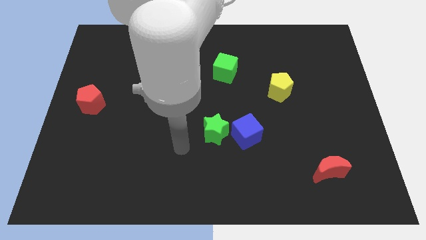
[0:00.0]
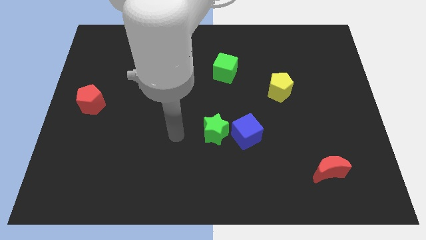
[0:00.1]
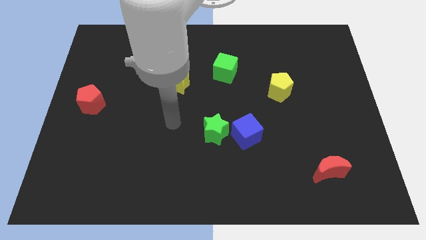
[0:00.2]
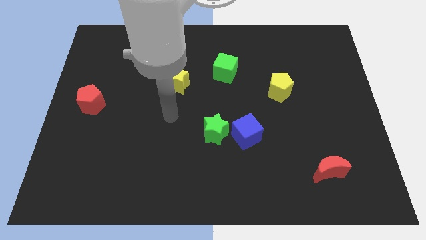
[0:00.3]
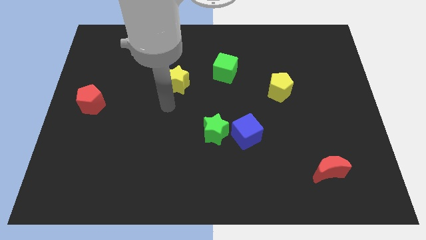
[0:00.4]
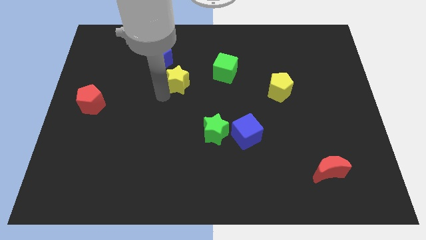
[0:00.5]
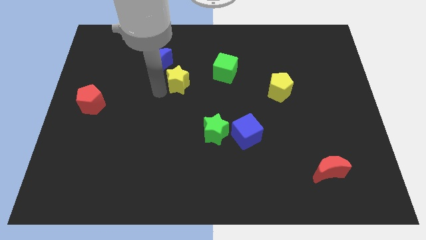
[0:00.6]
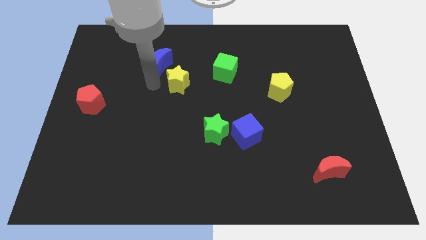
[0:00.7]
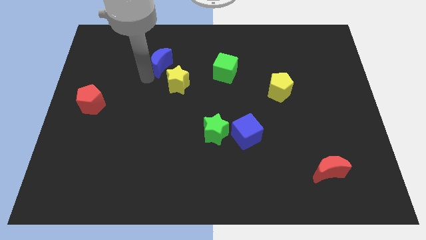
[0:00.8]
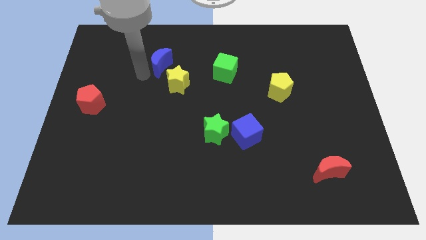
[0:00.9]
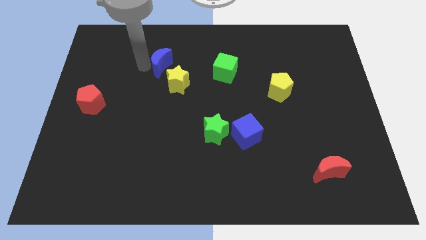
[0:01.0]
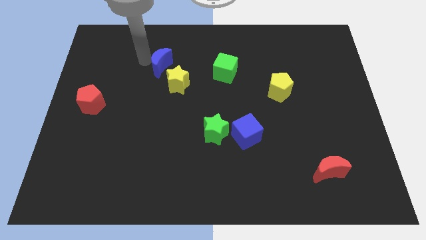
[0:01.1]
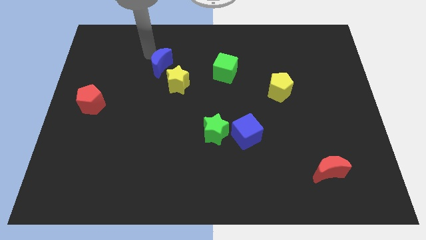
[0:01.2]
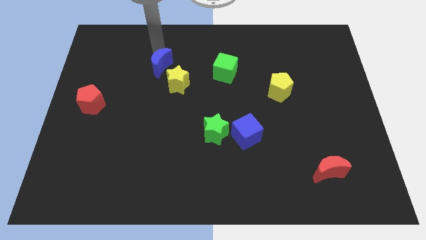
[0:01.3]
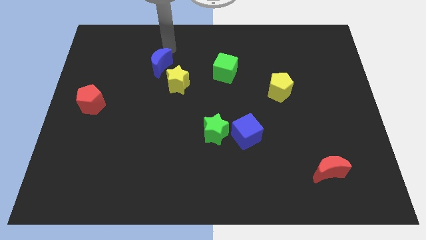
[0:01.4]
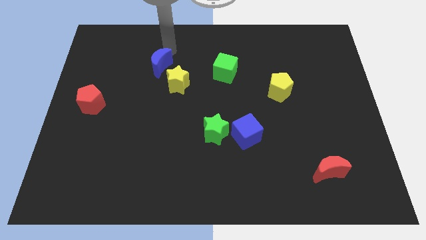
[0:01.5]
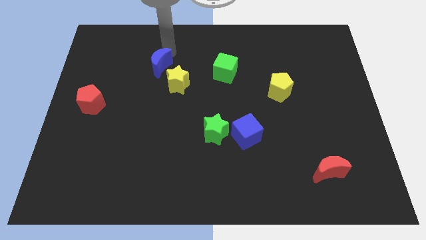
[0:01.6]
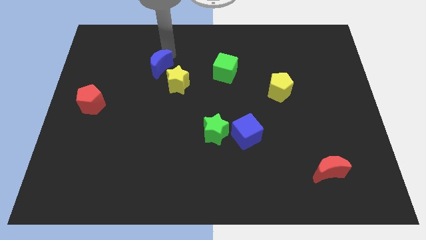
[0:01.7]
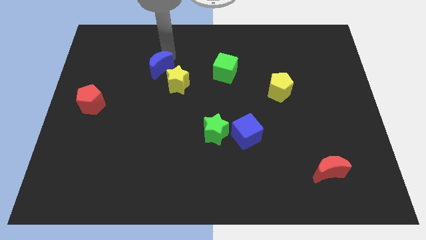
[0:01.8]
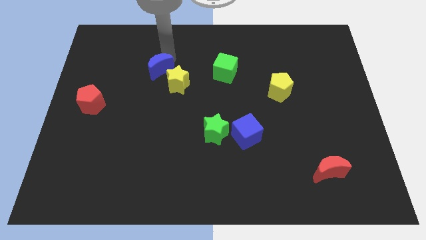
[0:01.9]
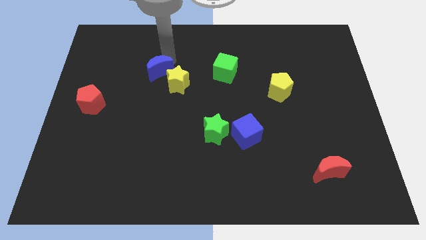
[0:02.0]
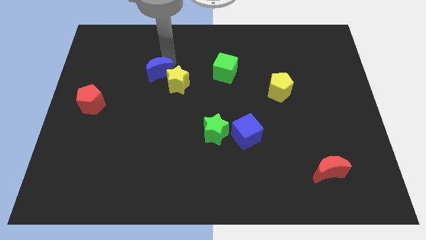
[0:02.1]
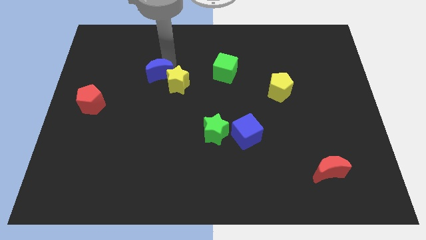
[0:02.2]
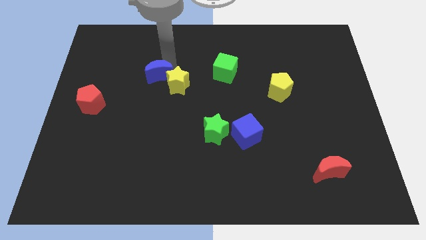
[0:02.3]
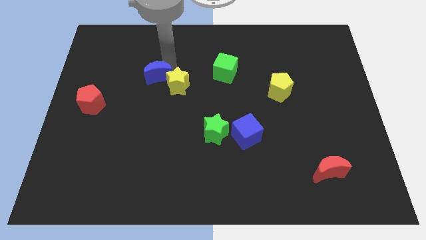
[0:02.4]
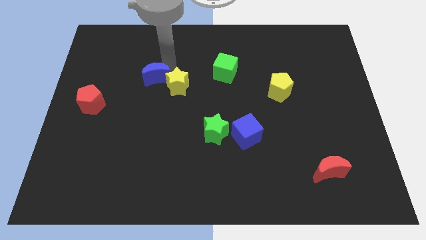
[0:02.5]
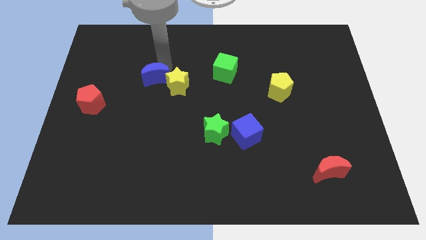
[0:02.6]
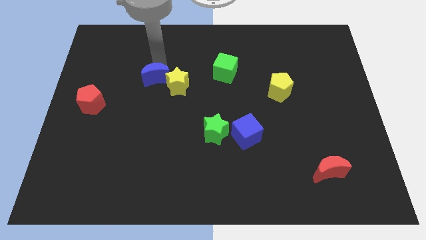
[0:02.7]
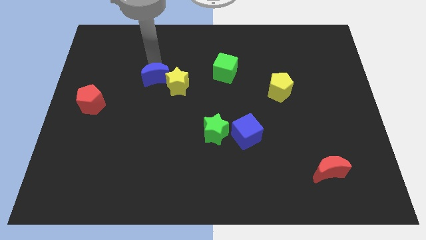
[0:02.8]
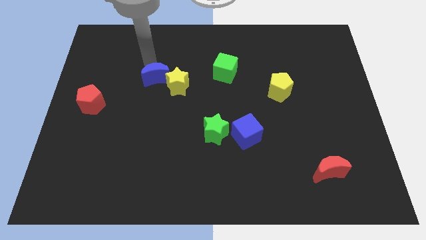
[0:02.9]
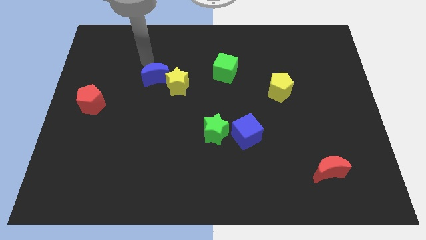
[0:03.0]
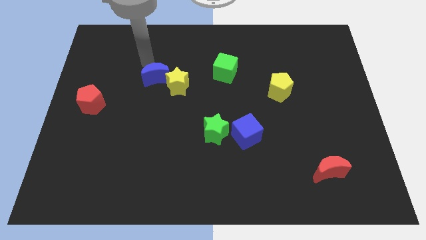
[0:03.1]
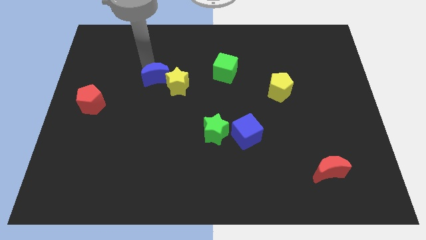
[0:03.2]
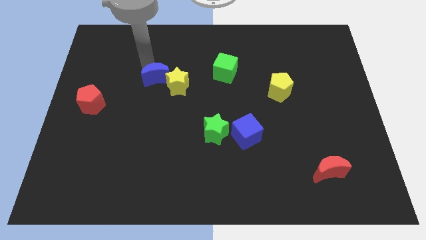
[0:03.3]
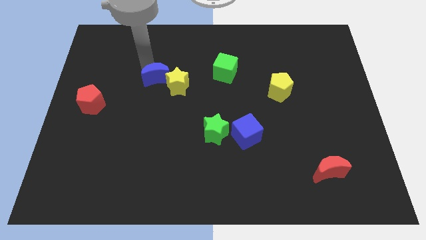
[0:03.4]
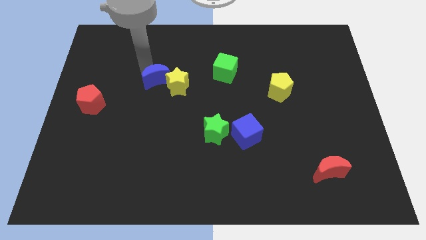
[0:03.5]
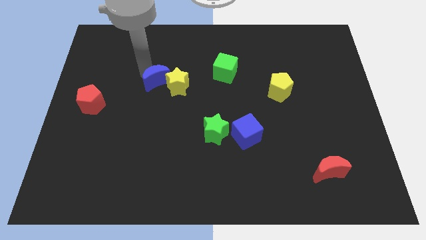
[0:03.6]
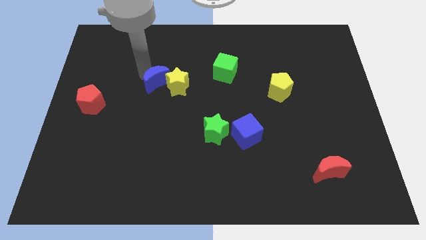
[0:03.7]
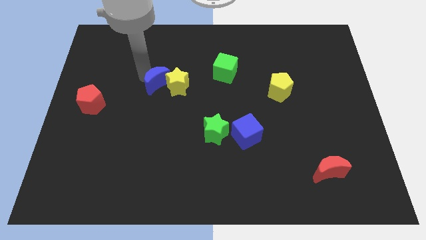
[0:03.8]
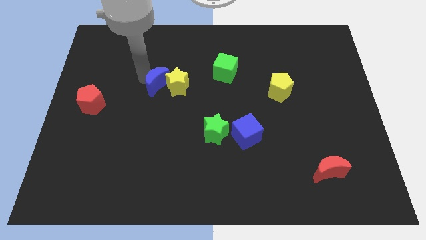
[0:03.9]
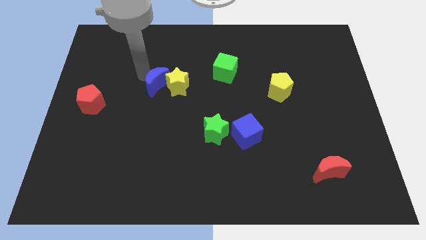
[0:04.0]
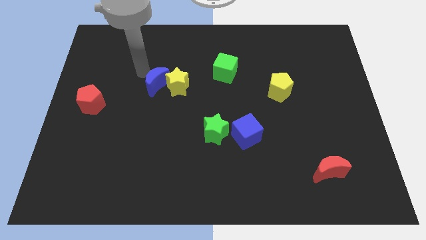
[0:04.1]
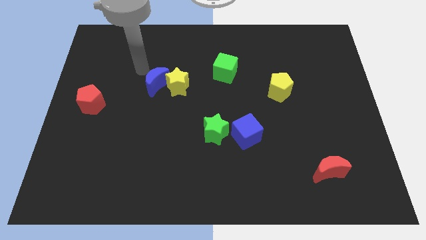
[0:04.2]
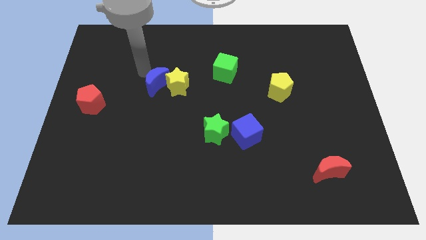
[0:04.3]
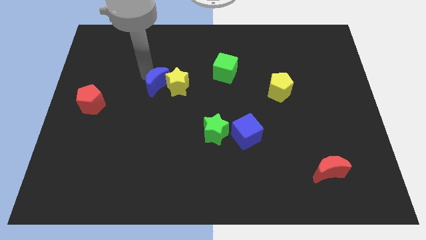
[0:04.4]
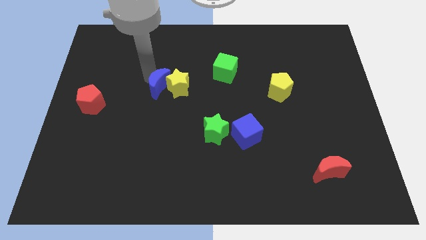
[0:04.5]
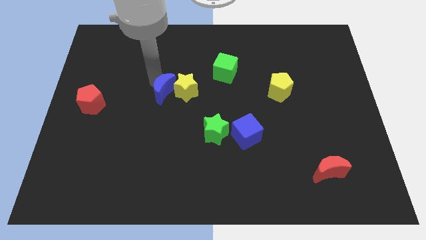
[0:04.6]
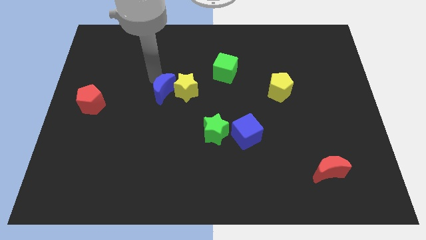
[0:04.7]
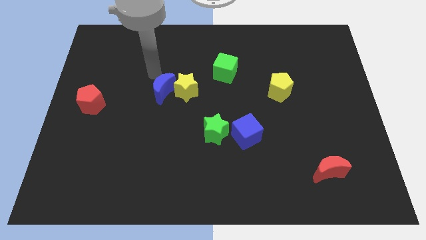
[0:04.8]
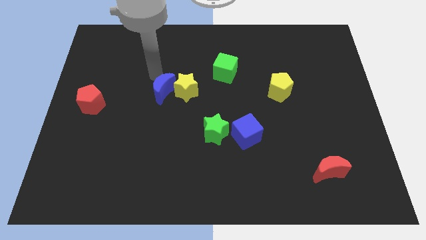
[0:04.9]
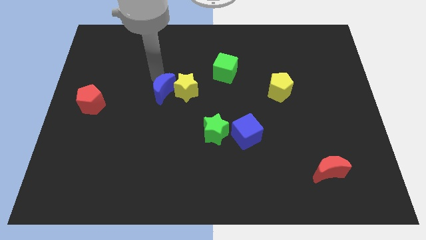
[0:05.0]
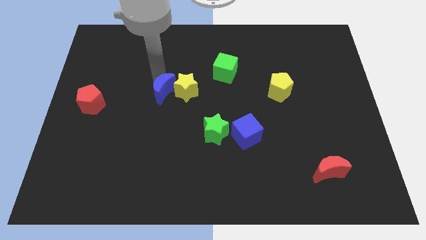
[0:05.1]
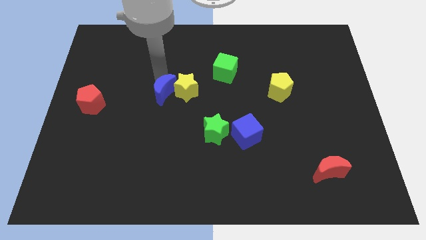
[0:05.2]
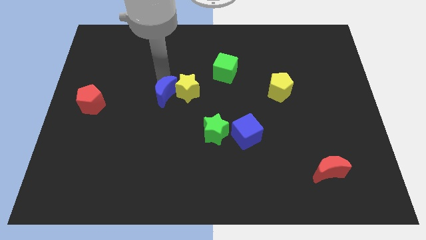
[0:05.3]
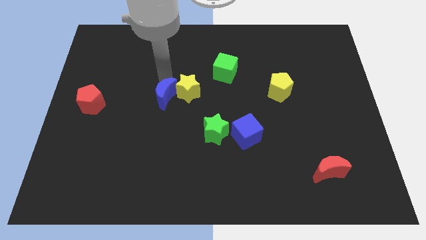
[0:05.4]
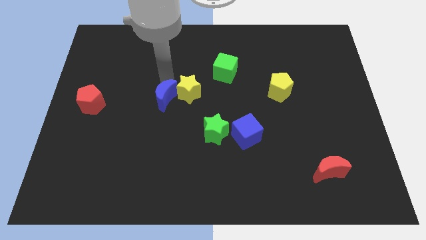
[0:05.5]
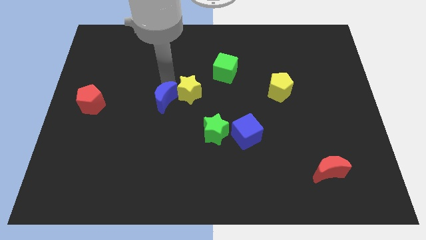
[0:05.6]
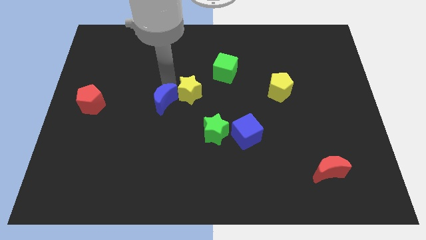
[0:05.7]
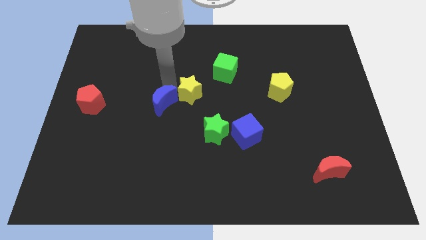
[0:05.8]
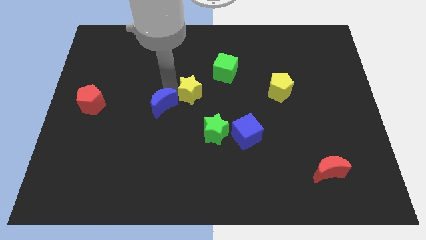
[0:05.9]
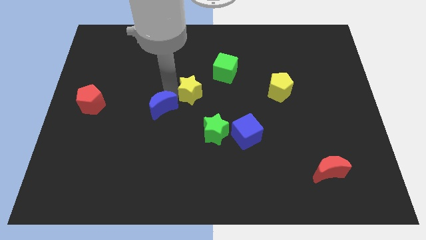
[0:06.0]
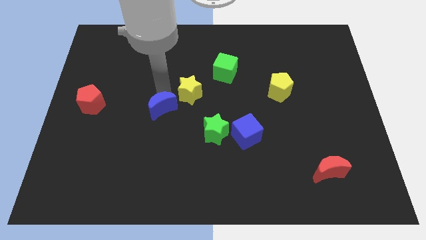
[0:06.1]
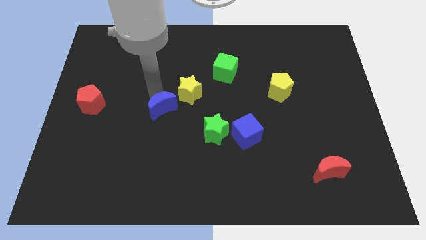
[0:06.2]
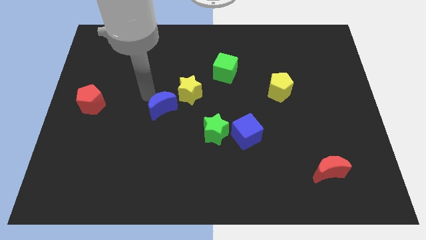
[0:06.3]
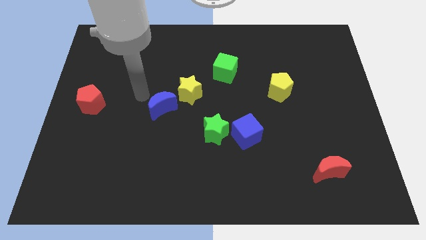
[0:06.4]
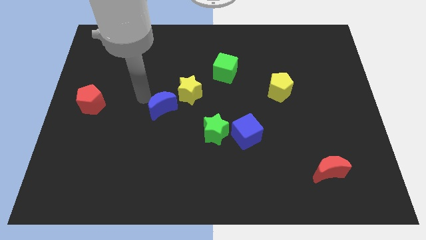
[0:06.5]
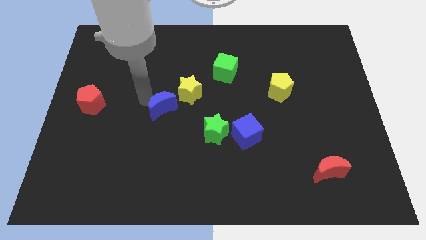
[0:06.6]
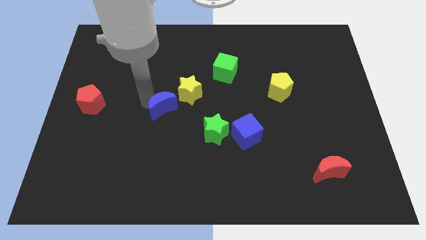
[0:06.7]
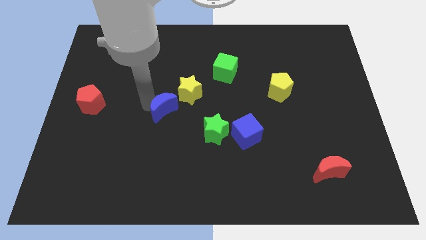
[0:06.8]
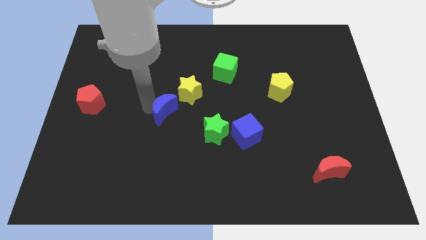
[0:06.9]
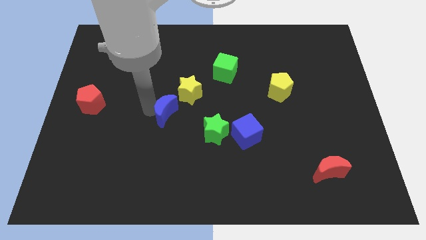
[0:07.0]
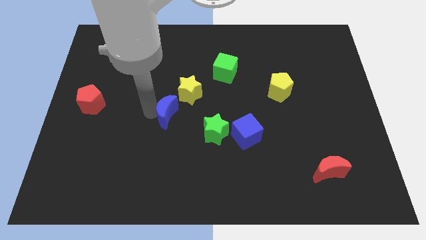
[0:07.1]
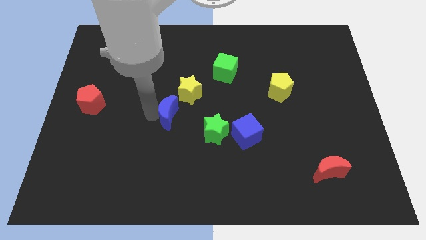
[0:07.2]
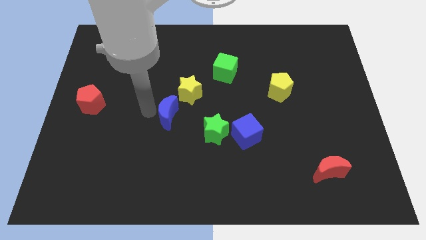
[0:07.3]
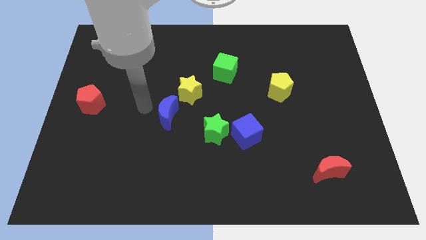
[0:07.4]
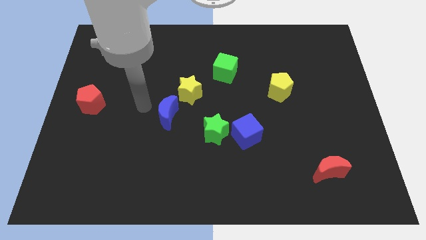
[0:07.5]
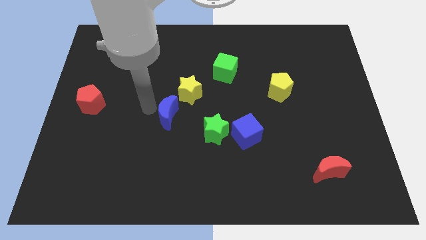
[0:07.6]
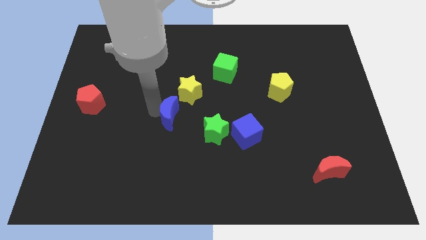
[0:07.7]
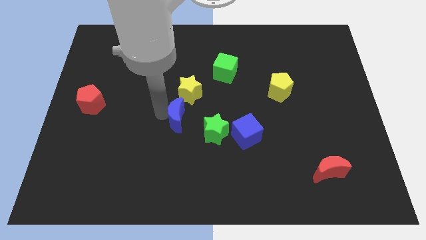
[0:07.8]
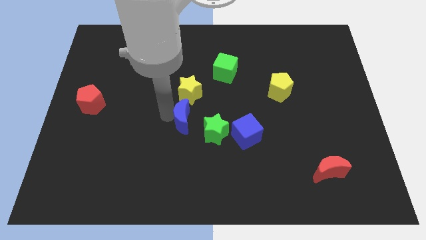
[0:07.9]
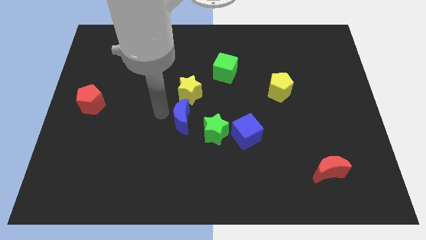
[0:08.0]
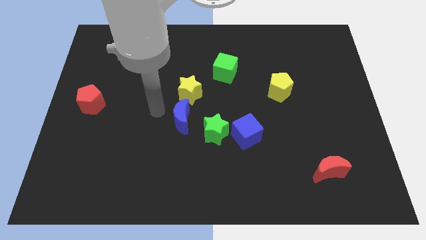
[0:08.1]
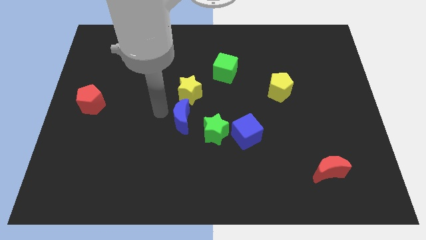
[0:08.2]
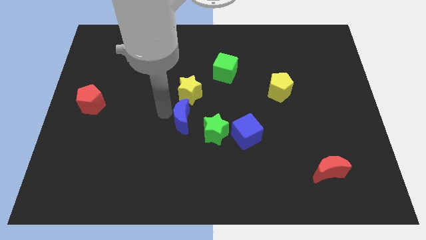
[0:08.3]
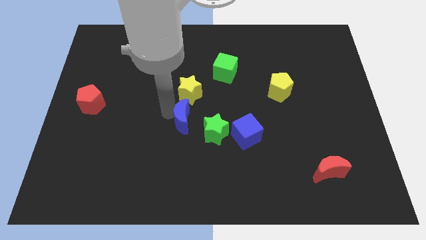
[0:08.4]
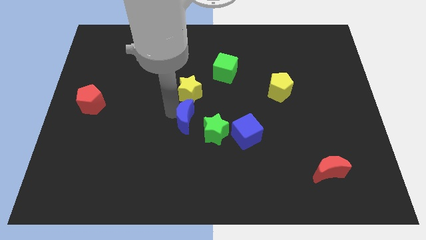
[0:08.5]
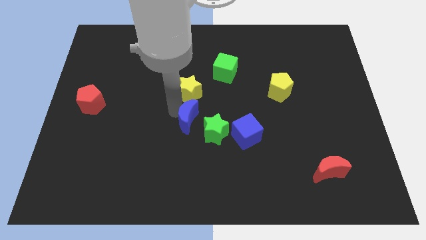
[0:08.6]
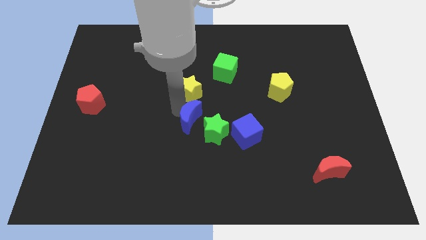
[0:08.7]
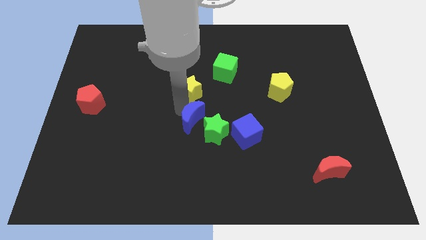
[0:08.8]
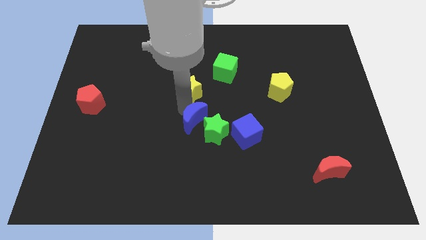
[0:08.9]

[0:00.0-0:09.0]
move the blue moon next to the green star
